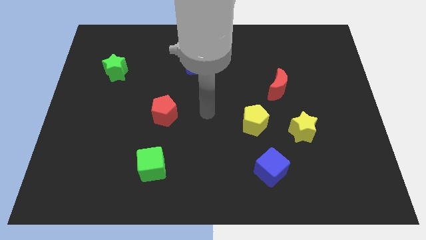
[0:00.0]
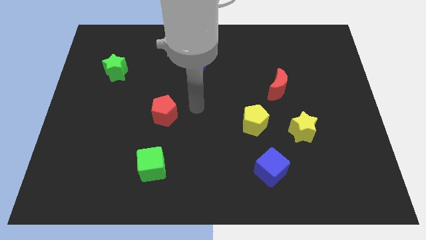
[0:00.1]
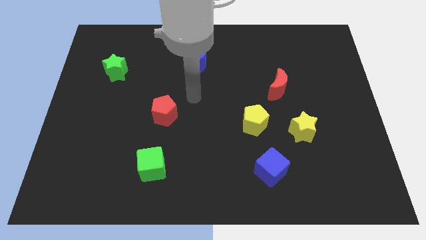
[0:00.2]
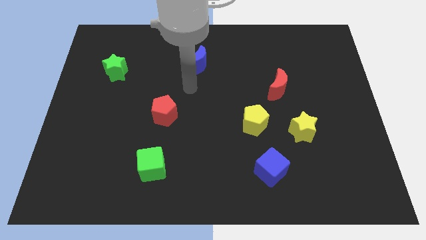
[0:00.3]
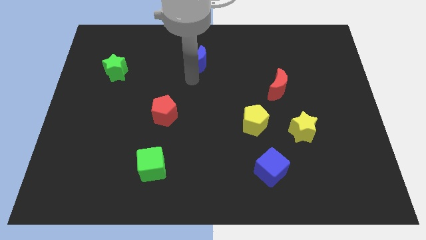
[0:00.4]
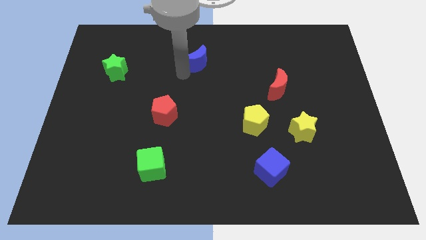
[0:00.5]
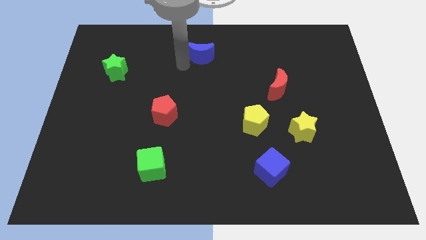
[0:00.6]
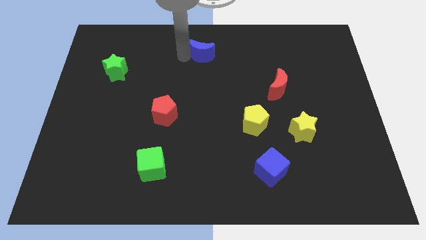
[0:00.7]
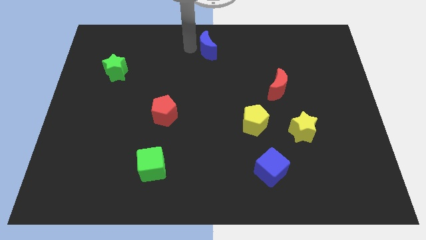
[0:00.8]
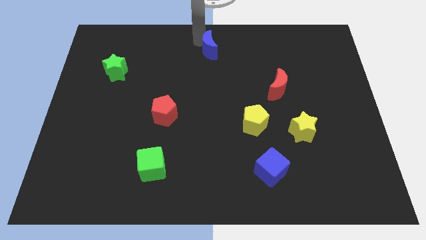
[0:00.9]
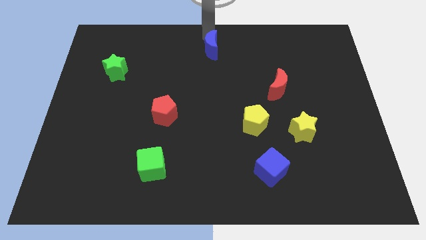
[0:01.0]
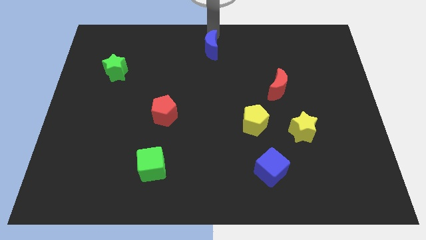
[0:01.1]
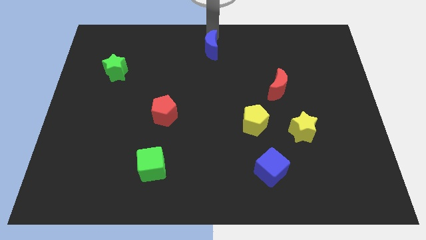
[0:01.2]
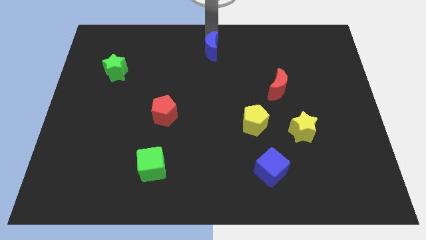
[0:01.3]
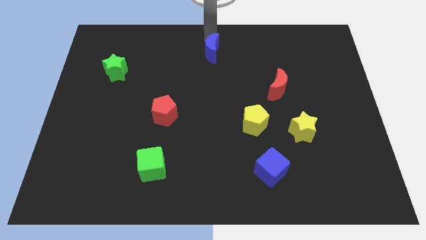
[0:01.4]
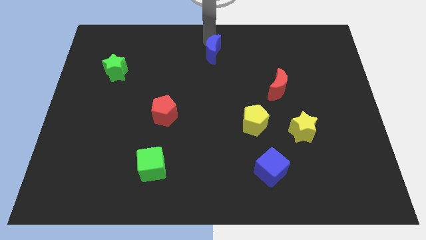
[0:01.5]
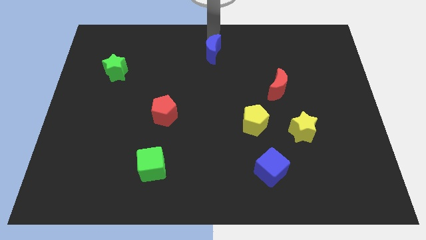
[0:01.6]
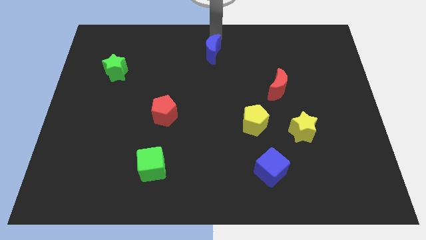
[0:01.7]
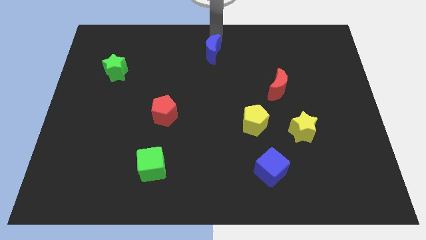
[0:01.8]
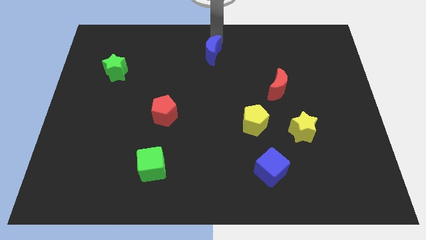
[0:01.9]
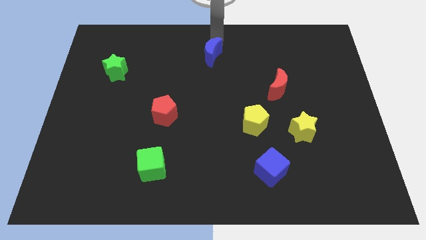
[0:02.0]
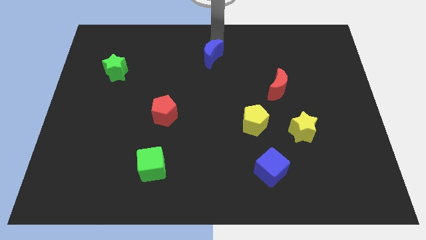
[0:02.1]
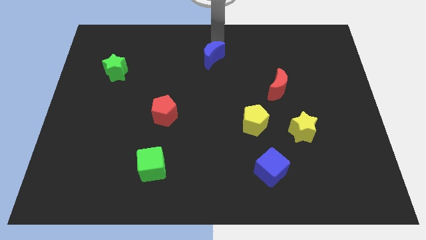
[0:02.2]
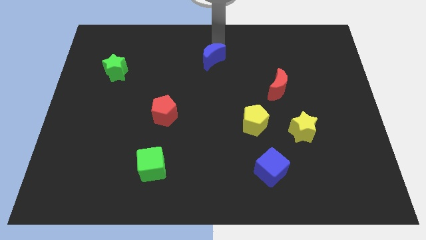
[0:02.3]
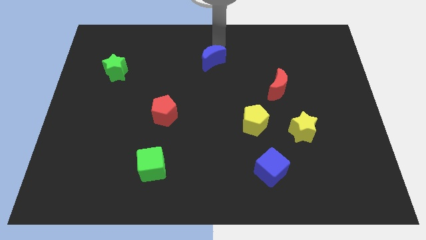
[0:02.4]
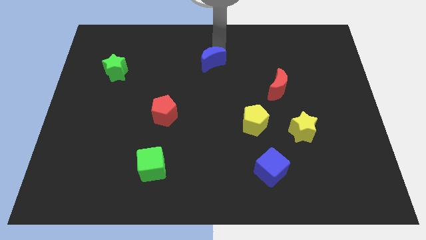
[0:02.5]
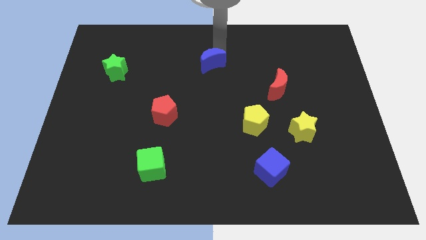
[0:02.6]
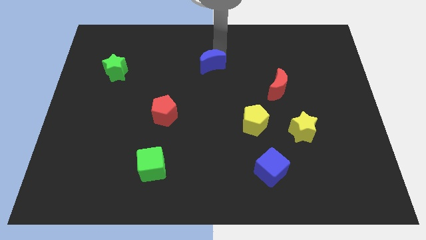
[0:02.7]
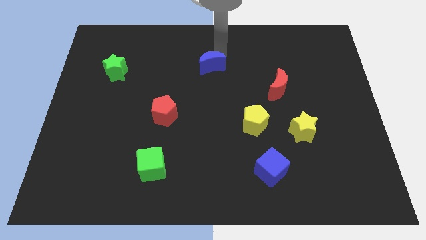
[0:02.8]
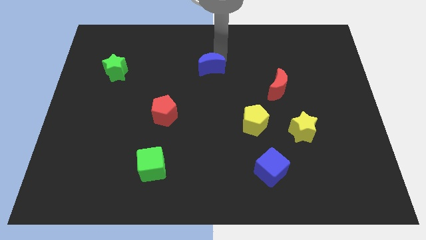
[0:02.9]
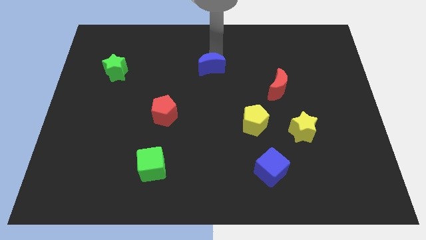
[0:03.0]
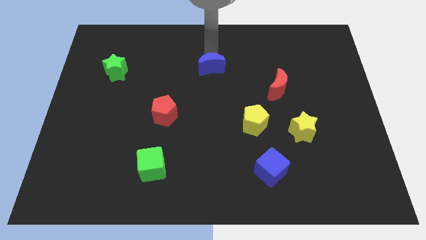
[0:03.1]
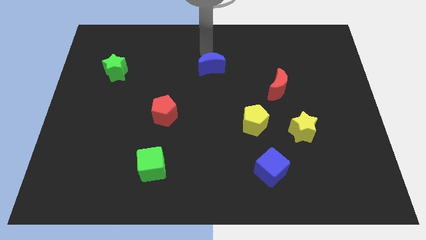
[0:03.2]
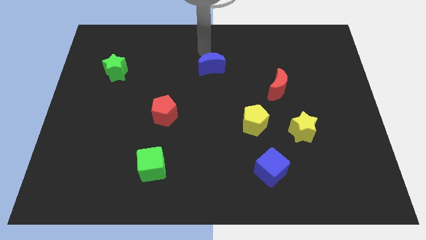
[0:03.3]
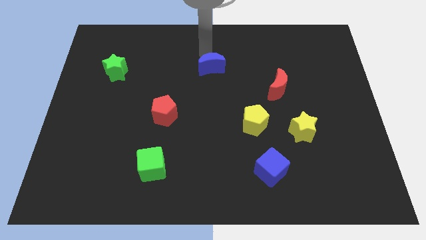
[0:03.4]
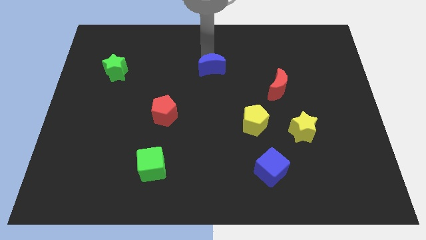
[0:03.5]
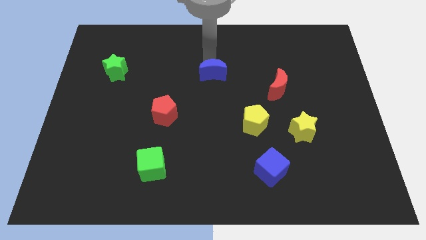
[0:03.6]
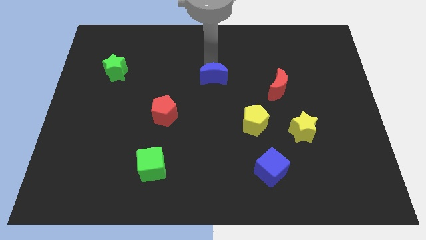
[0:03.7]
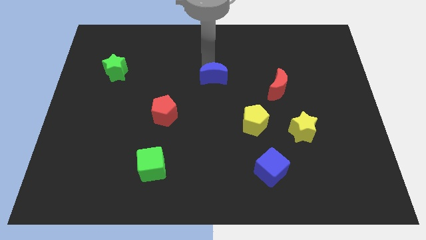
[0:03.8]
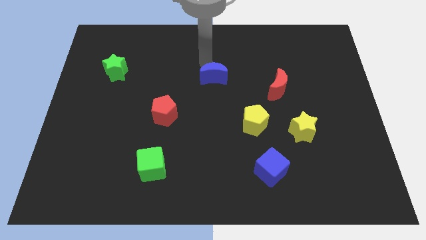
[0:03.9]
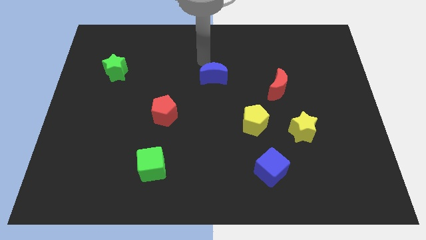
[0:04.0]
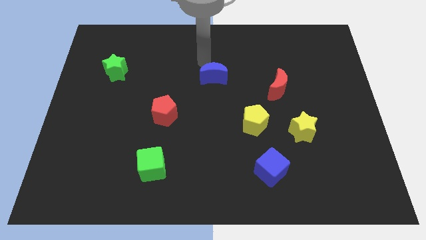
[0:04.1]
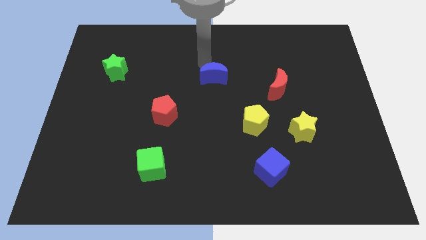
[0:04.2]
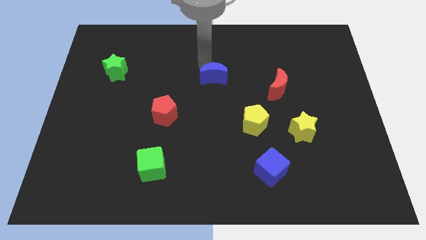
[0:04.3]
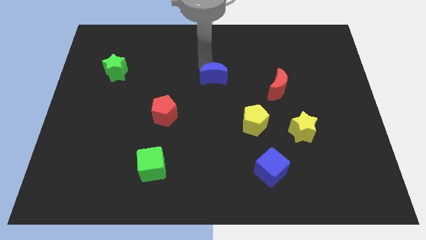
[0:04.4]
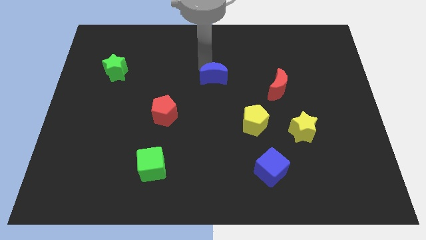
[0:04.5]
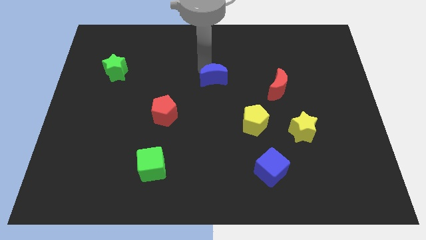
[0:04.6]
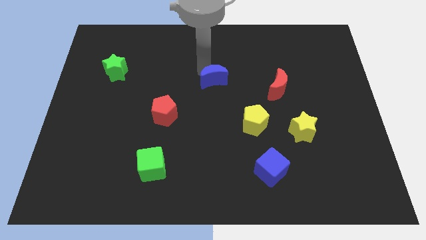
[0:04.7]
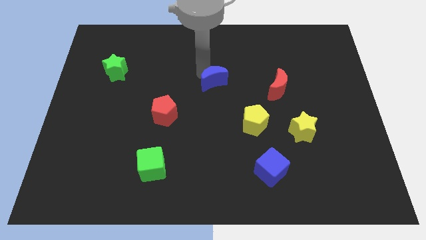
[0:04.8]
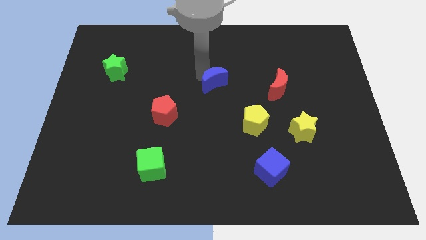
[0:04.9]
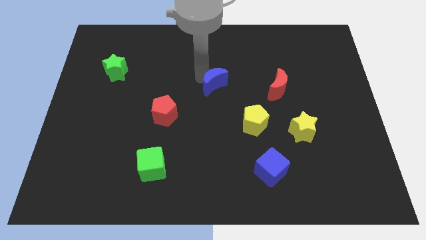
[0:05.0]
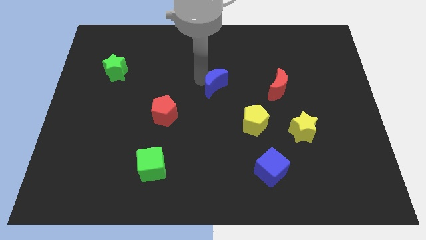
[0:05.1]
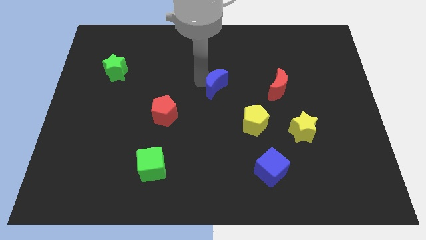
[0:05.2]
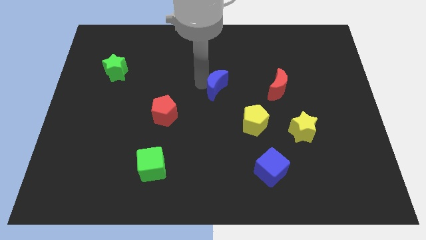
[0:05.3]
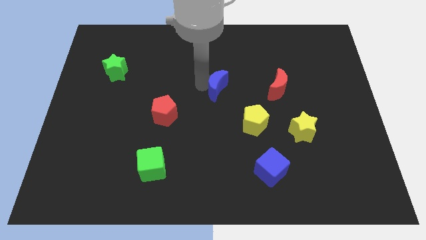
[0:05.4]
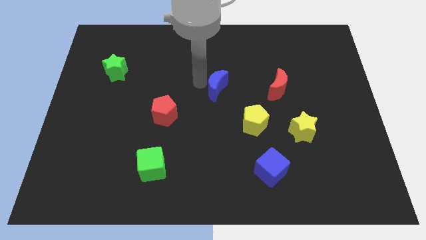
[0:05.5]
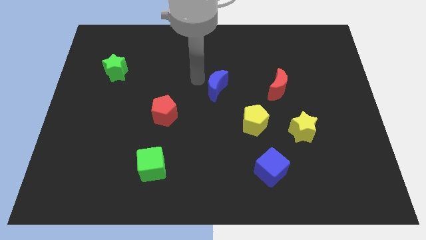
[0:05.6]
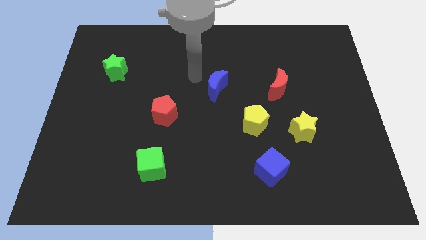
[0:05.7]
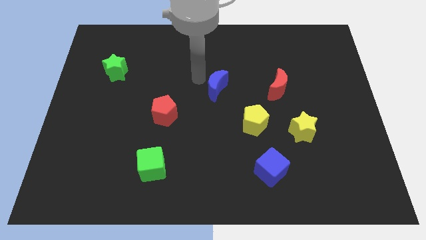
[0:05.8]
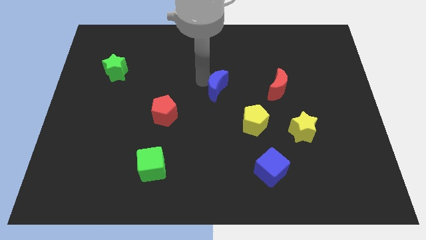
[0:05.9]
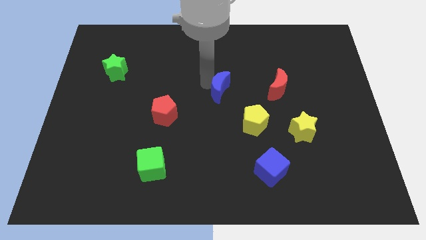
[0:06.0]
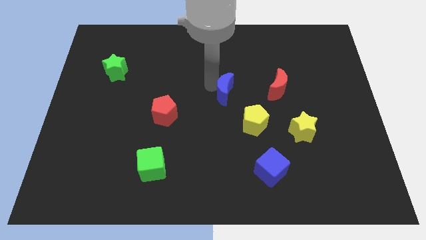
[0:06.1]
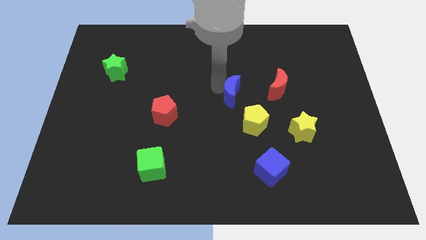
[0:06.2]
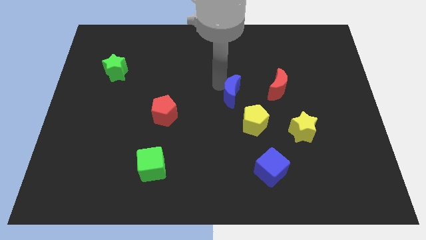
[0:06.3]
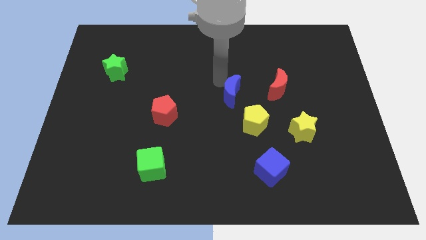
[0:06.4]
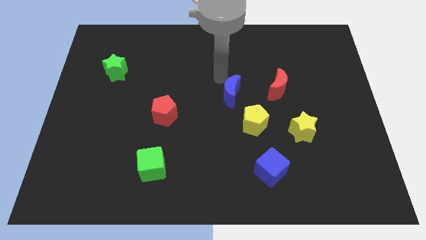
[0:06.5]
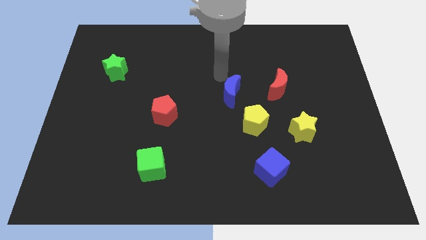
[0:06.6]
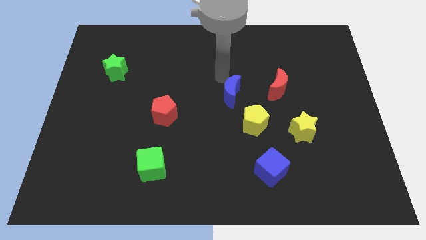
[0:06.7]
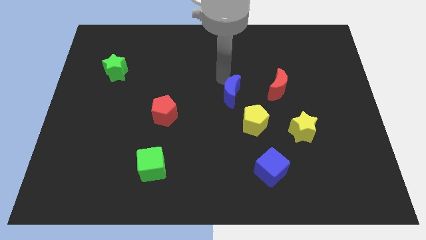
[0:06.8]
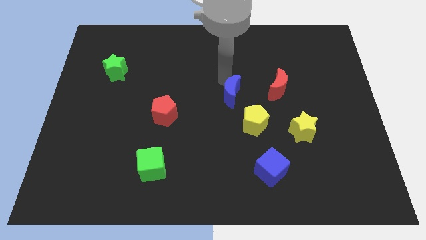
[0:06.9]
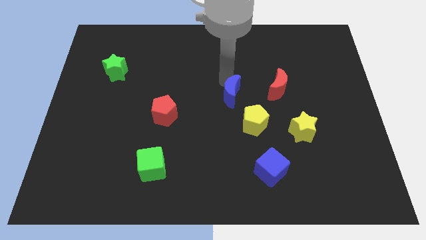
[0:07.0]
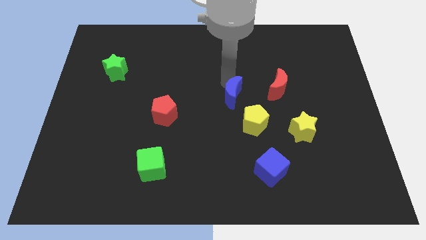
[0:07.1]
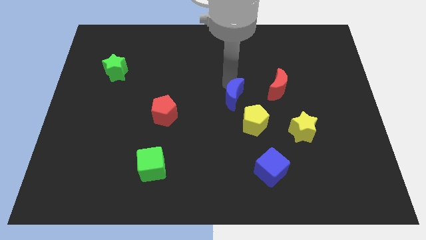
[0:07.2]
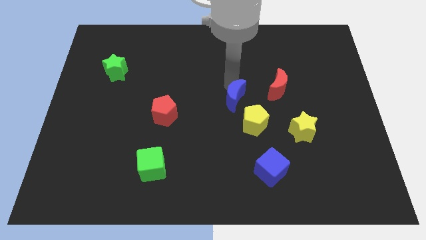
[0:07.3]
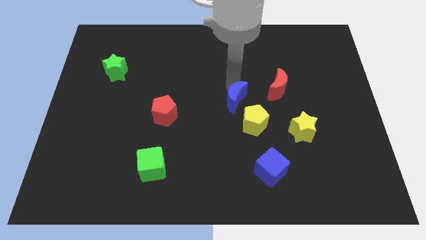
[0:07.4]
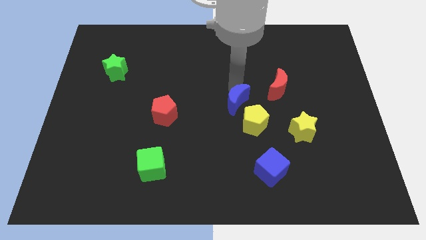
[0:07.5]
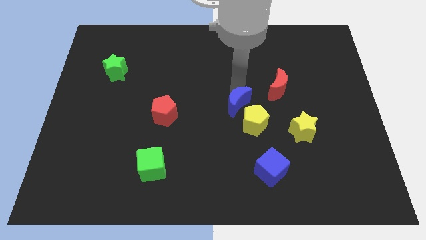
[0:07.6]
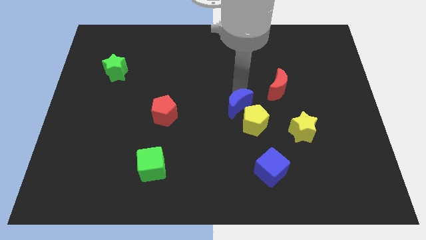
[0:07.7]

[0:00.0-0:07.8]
push the blue moon to the yellow pentagon

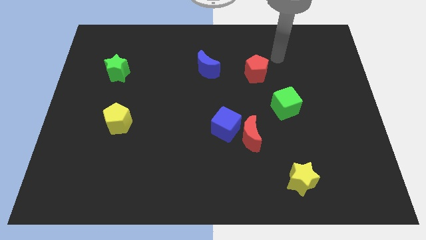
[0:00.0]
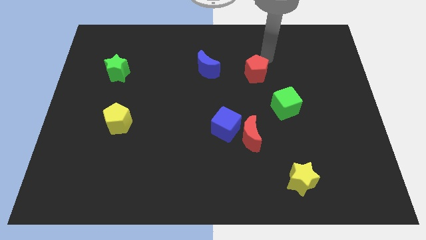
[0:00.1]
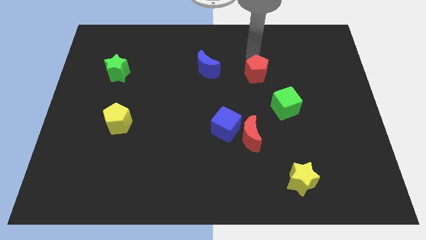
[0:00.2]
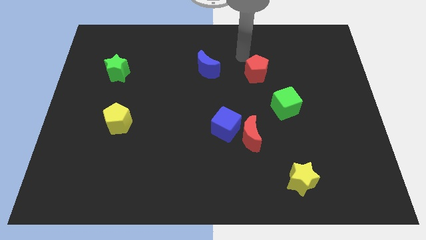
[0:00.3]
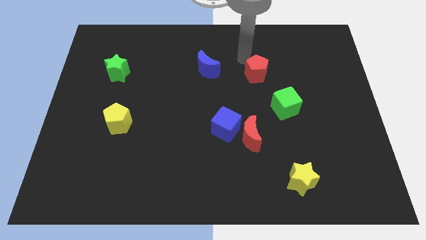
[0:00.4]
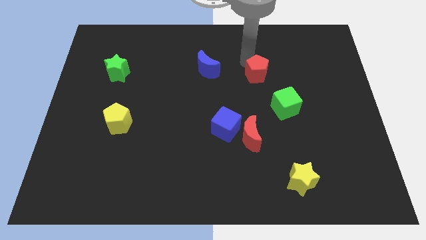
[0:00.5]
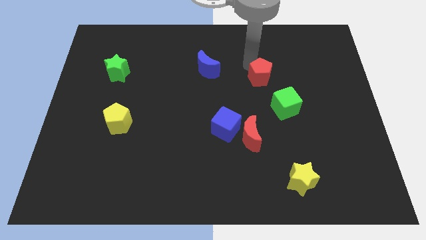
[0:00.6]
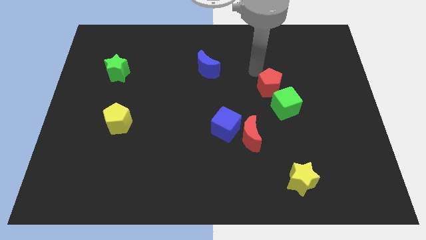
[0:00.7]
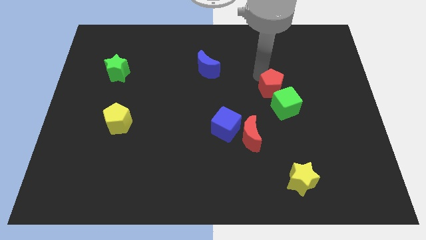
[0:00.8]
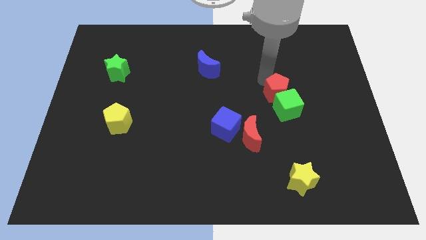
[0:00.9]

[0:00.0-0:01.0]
slide the red pentagon to the green cube
